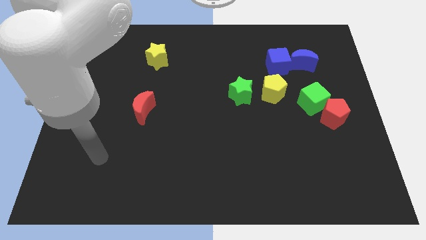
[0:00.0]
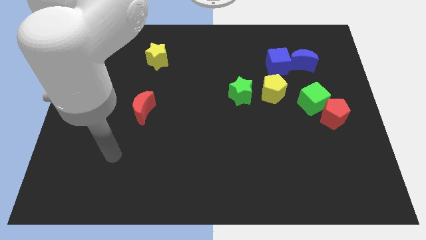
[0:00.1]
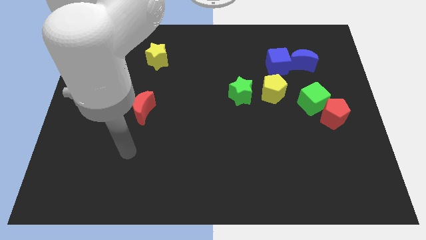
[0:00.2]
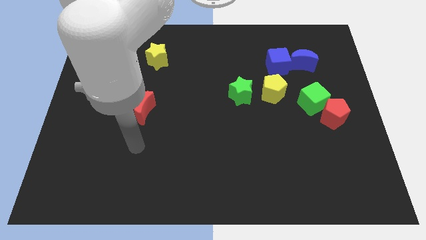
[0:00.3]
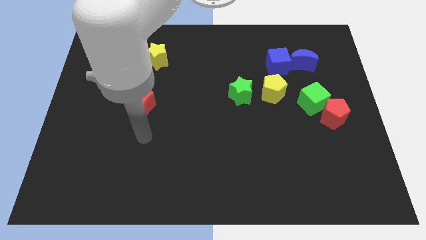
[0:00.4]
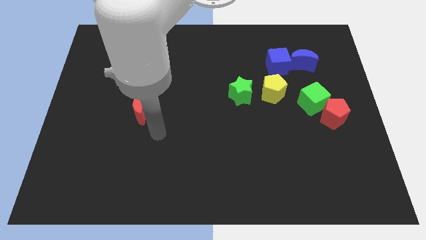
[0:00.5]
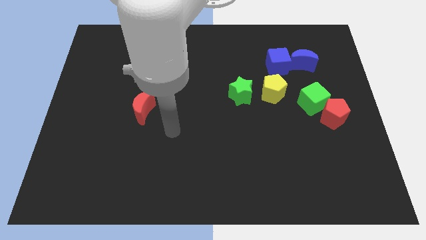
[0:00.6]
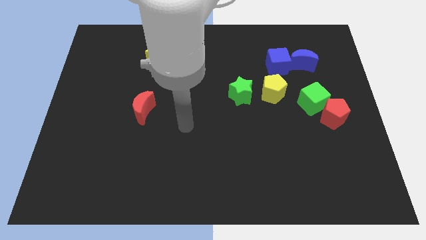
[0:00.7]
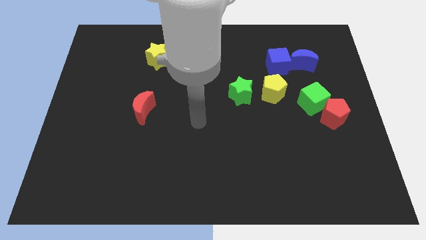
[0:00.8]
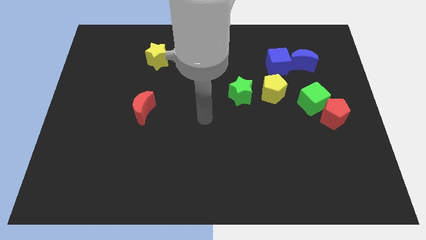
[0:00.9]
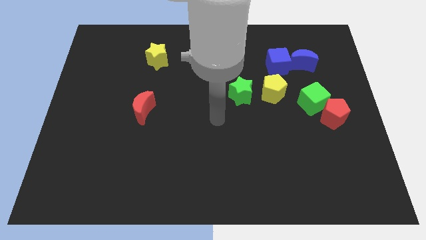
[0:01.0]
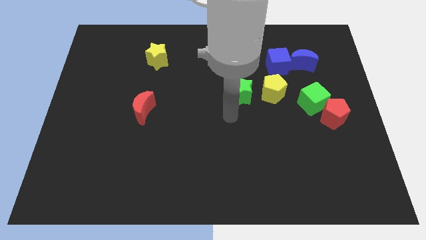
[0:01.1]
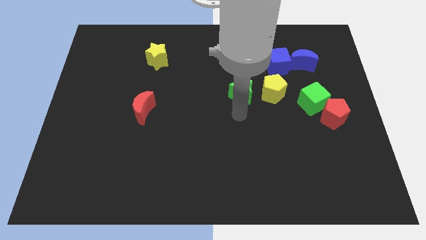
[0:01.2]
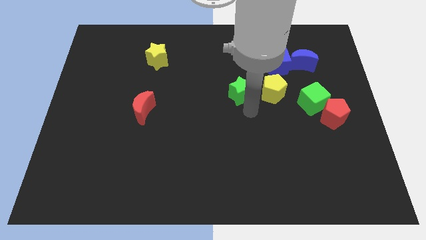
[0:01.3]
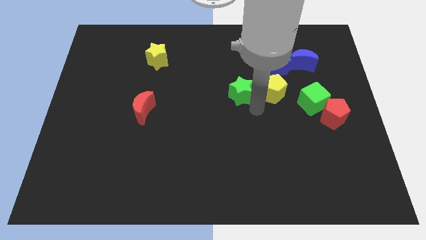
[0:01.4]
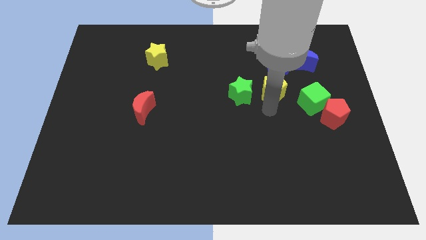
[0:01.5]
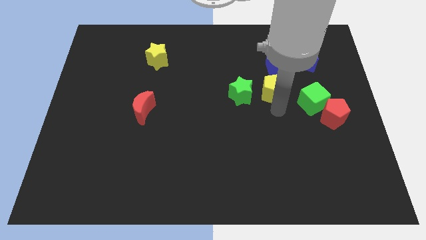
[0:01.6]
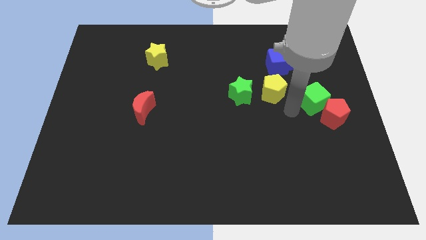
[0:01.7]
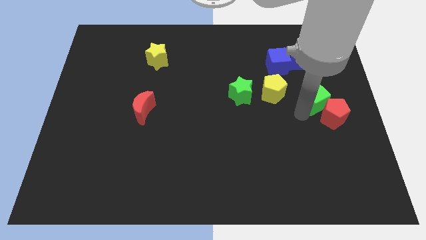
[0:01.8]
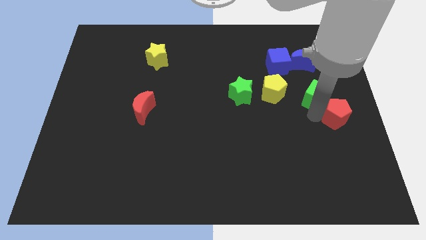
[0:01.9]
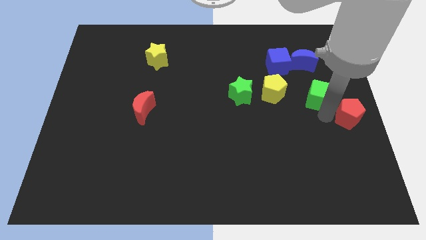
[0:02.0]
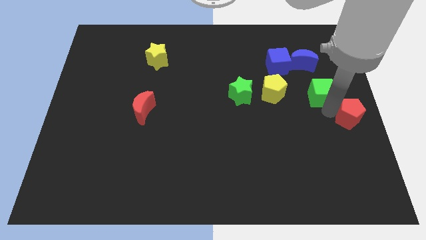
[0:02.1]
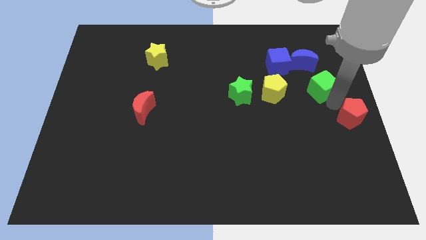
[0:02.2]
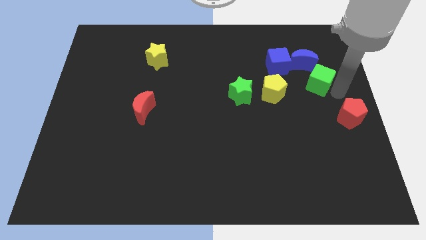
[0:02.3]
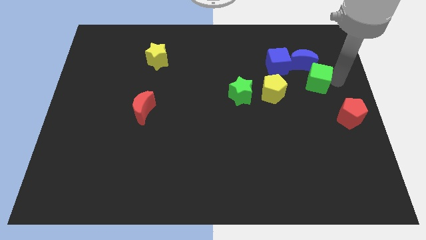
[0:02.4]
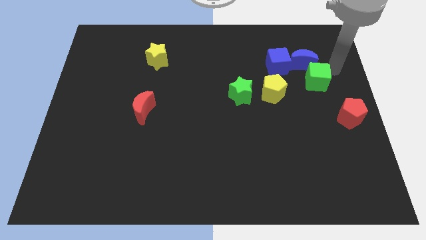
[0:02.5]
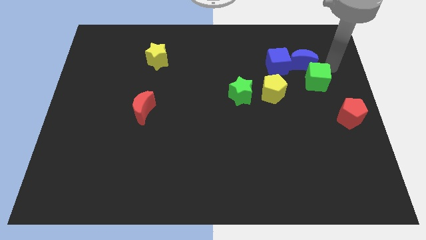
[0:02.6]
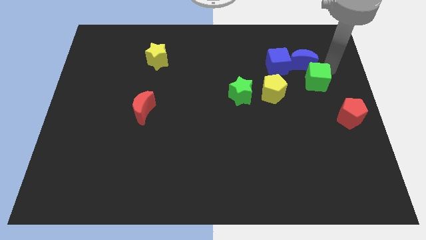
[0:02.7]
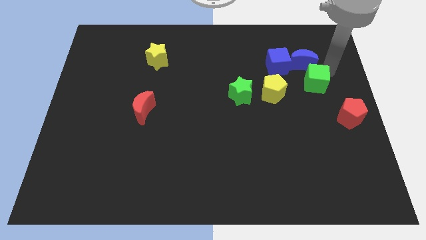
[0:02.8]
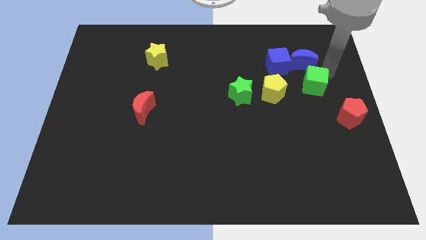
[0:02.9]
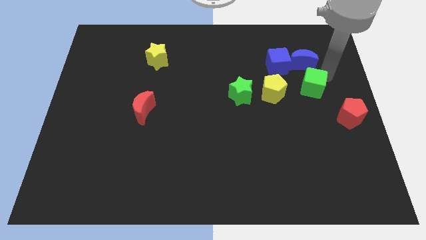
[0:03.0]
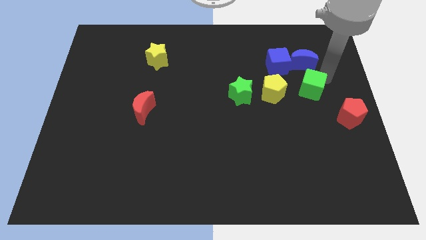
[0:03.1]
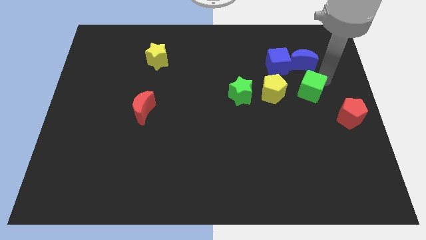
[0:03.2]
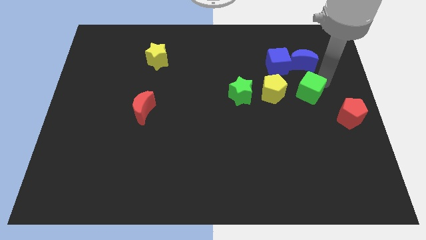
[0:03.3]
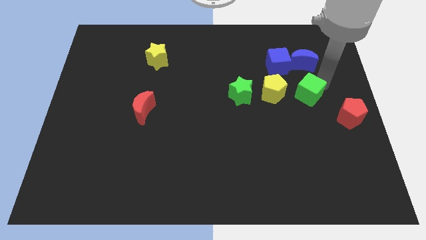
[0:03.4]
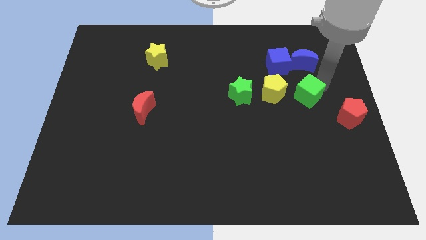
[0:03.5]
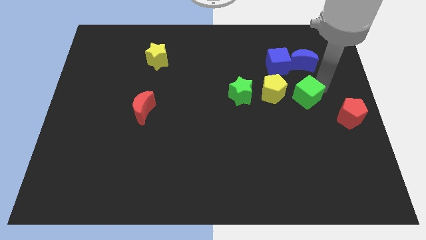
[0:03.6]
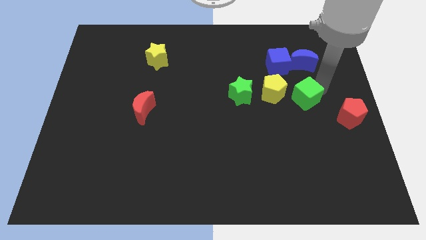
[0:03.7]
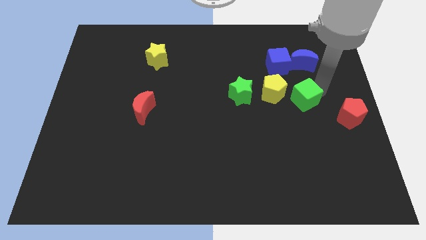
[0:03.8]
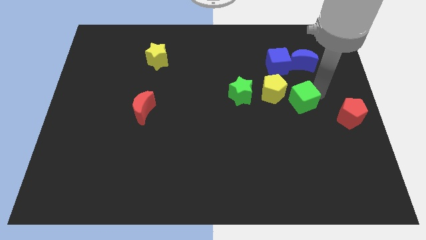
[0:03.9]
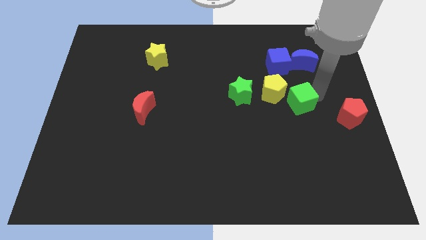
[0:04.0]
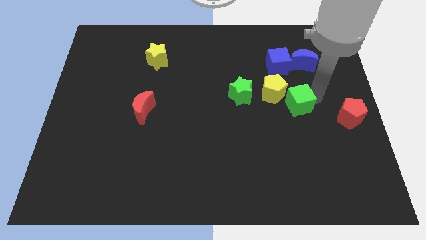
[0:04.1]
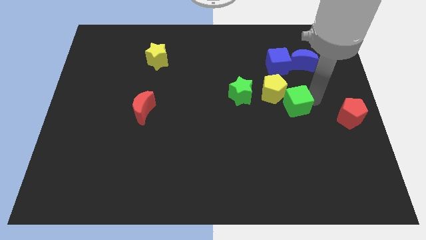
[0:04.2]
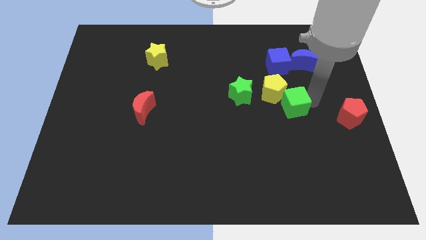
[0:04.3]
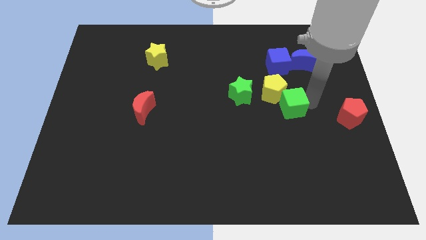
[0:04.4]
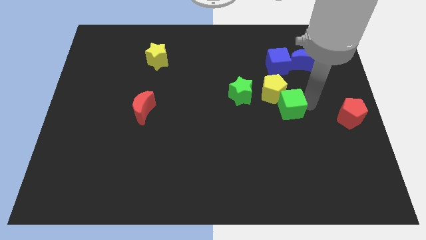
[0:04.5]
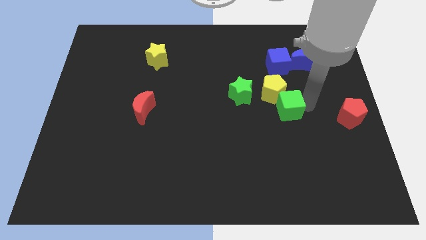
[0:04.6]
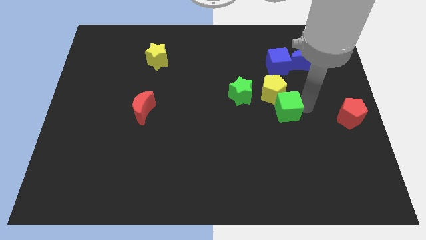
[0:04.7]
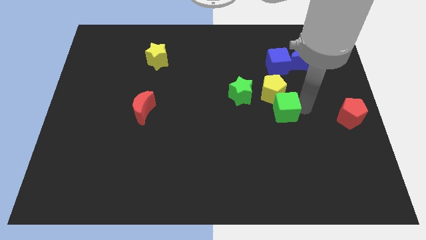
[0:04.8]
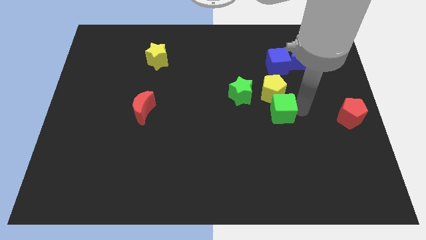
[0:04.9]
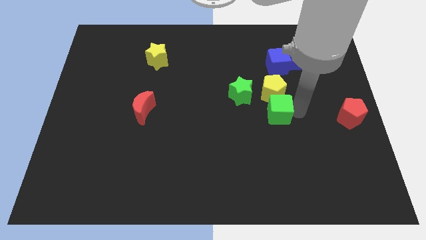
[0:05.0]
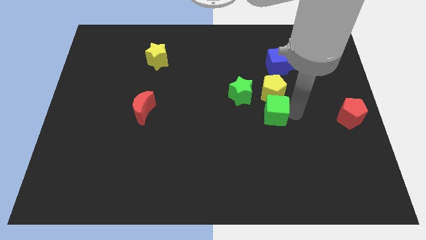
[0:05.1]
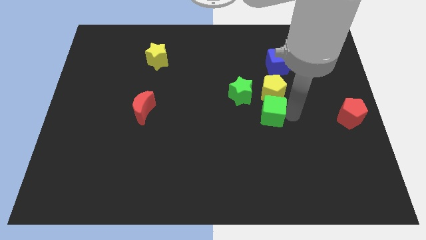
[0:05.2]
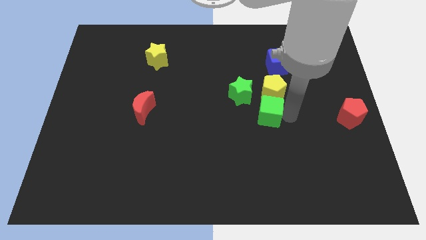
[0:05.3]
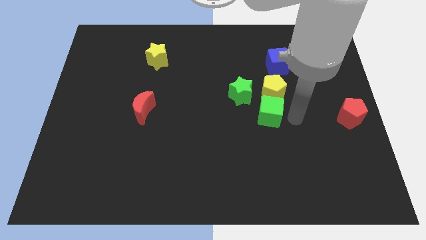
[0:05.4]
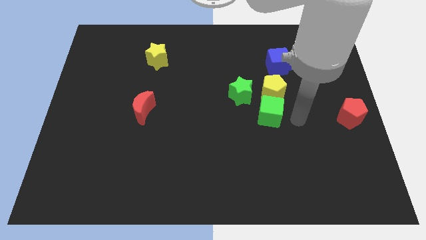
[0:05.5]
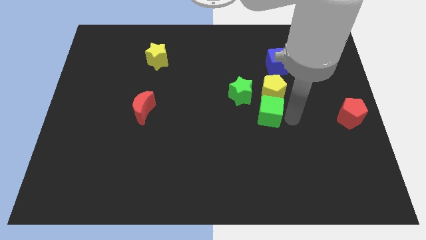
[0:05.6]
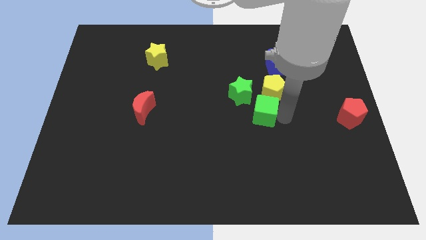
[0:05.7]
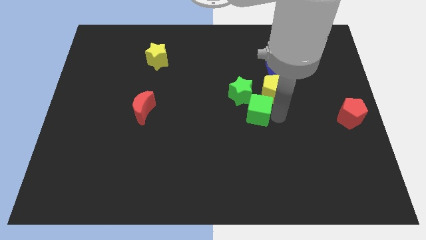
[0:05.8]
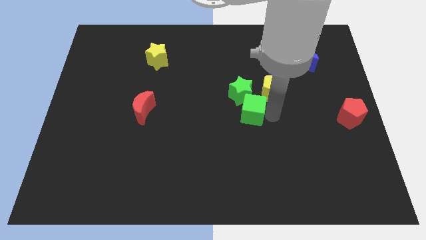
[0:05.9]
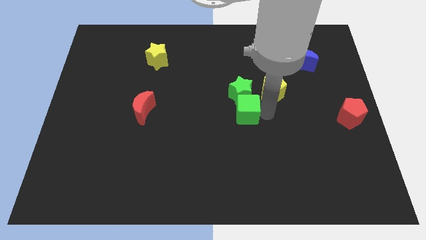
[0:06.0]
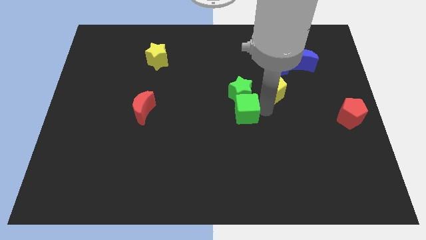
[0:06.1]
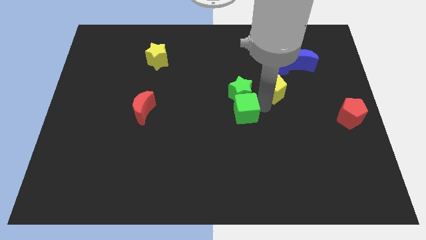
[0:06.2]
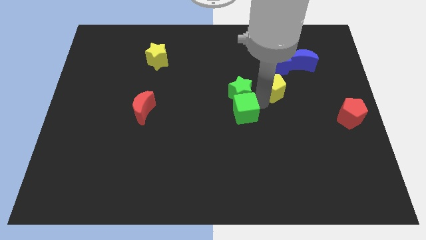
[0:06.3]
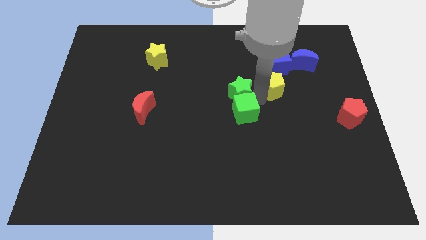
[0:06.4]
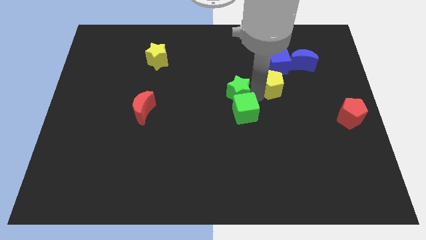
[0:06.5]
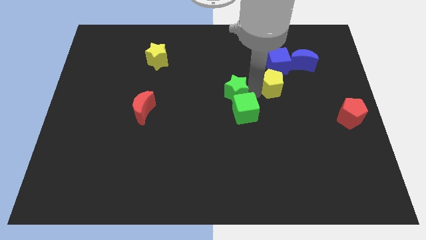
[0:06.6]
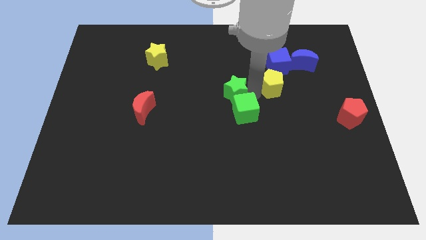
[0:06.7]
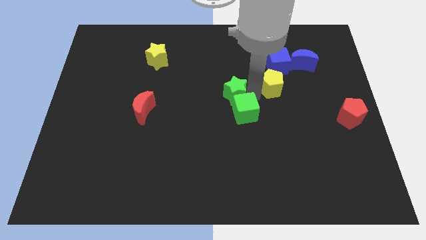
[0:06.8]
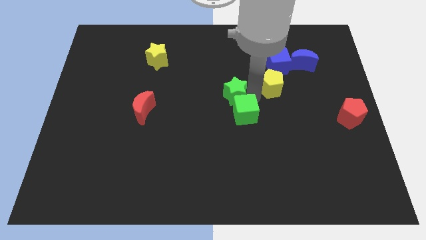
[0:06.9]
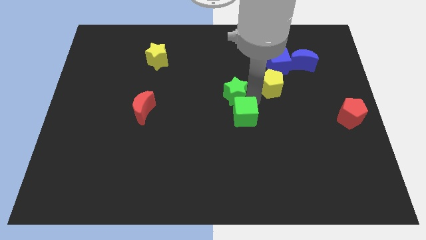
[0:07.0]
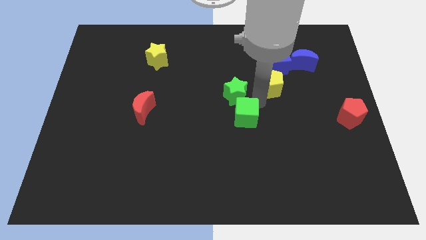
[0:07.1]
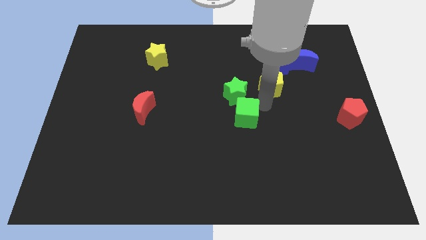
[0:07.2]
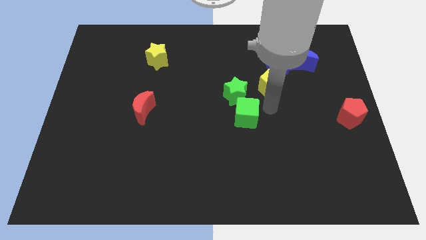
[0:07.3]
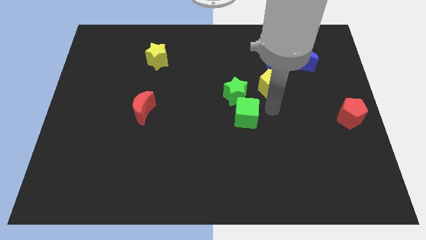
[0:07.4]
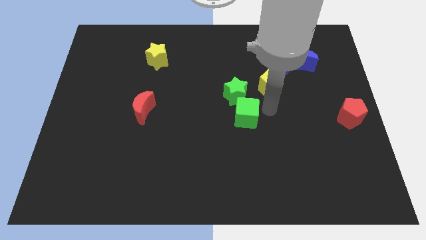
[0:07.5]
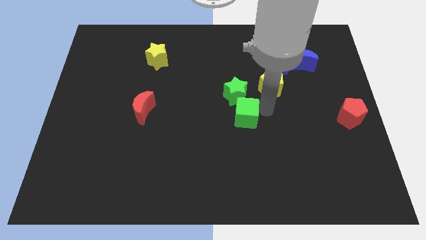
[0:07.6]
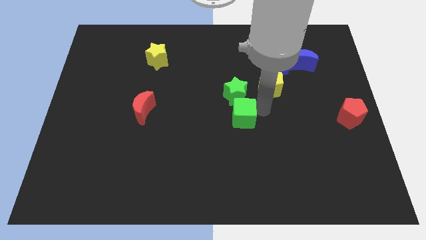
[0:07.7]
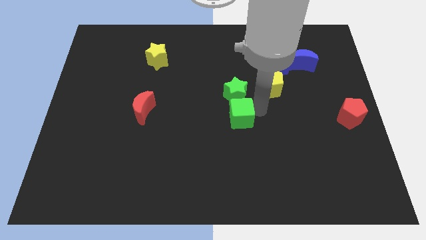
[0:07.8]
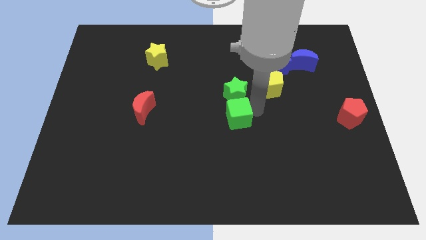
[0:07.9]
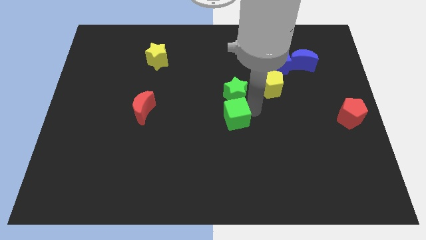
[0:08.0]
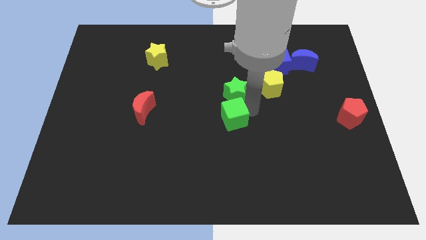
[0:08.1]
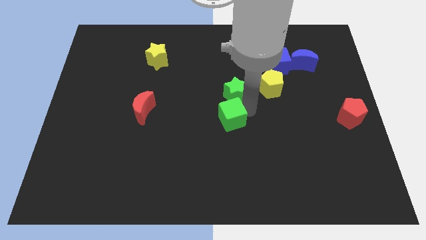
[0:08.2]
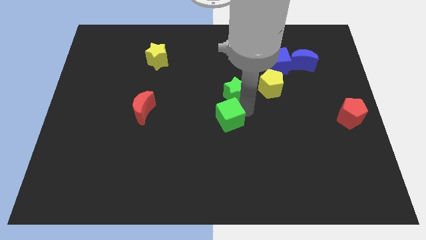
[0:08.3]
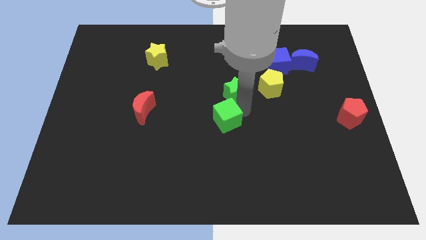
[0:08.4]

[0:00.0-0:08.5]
move the green cube to the left
